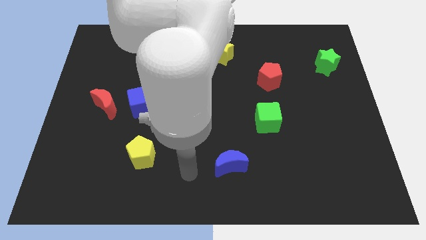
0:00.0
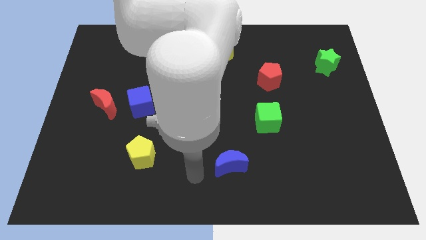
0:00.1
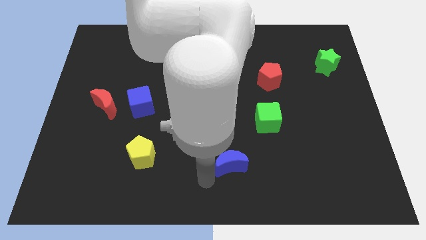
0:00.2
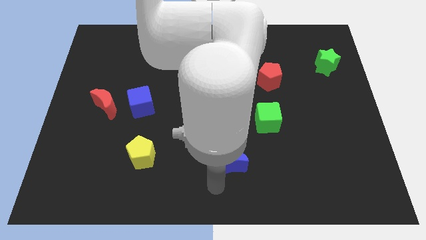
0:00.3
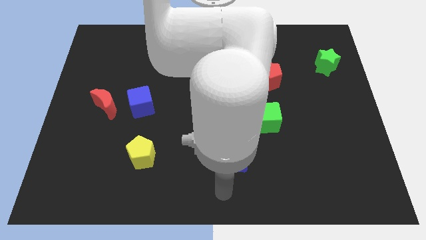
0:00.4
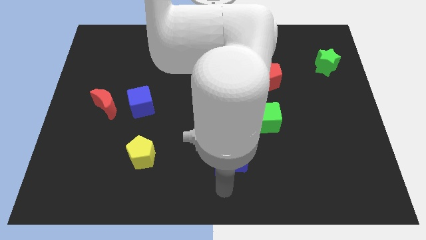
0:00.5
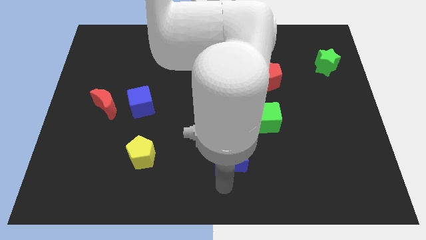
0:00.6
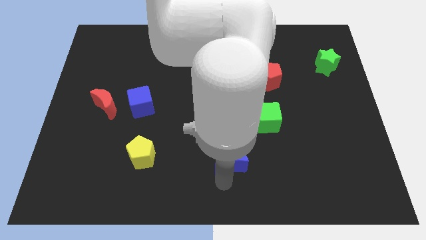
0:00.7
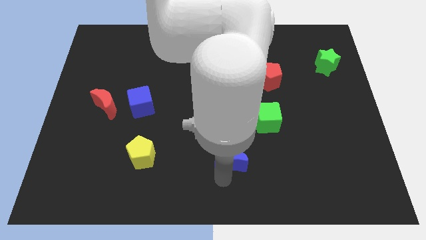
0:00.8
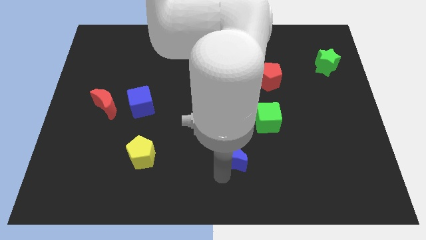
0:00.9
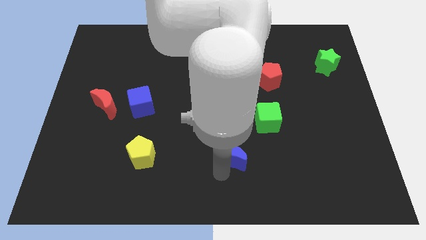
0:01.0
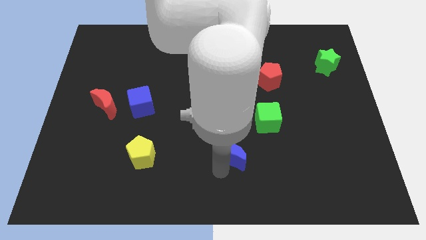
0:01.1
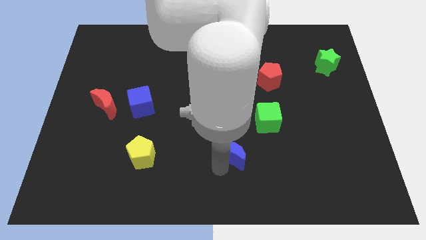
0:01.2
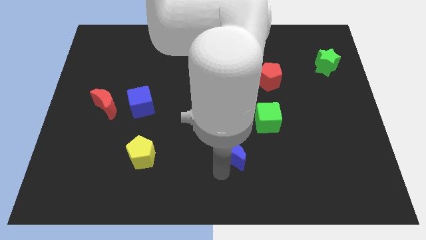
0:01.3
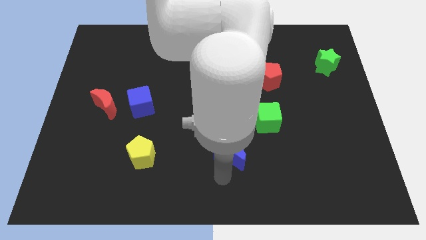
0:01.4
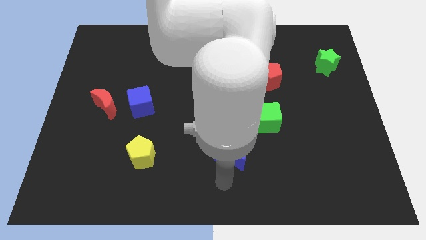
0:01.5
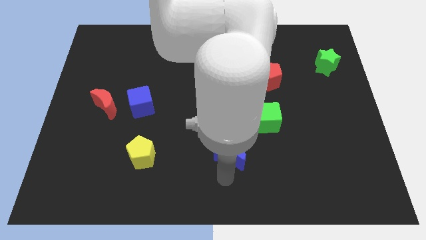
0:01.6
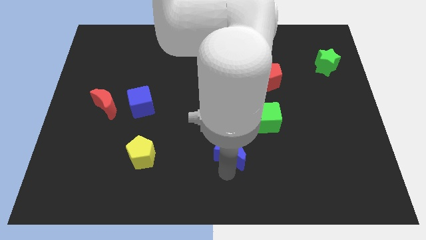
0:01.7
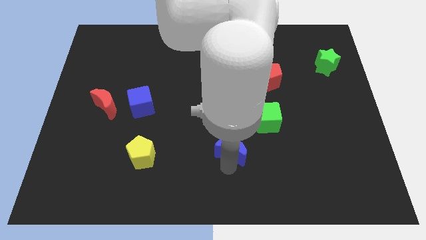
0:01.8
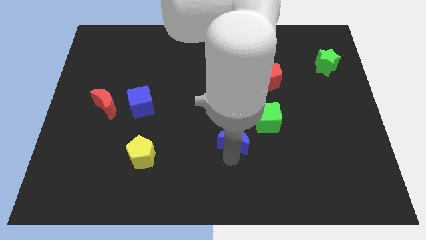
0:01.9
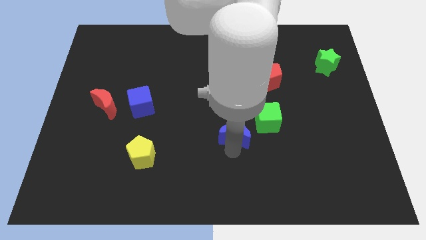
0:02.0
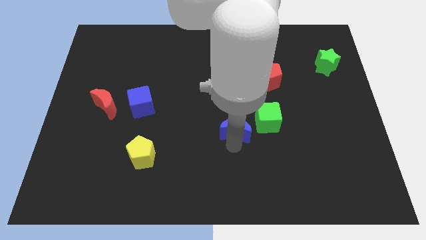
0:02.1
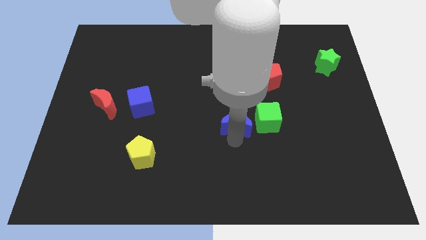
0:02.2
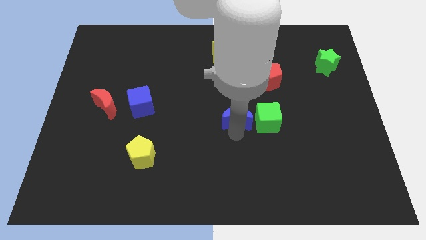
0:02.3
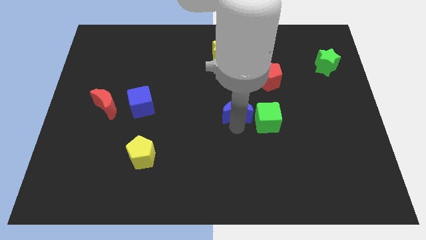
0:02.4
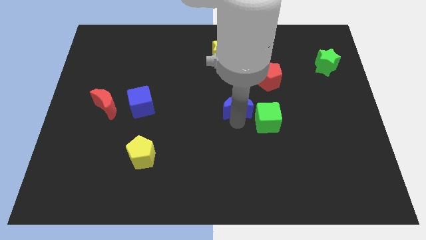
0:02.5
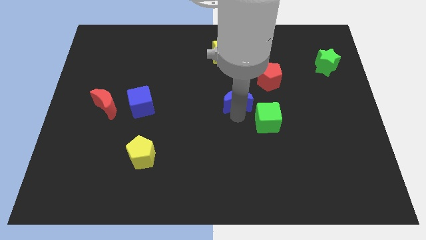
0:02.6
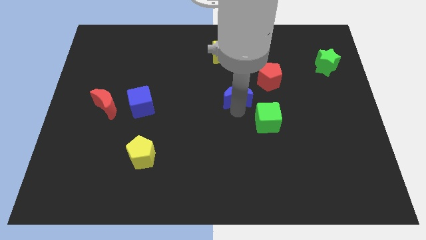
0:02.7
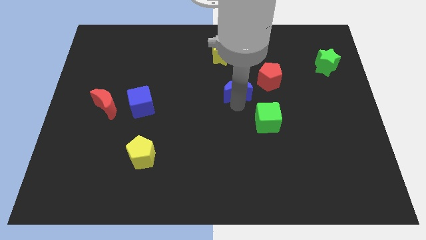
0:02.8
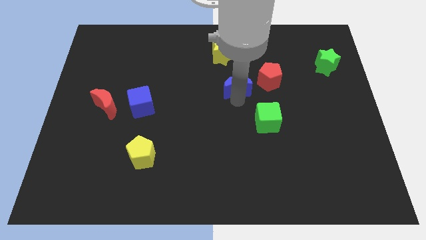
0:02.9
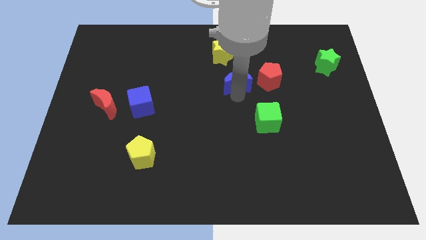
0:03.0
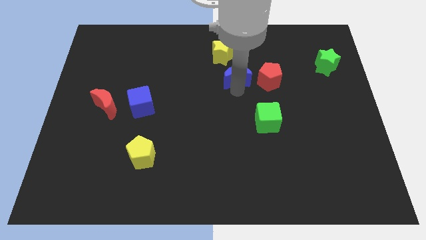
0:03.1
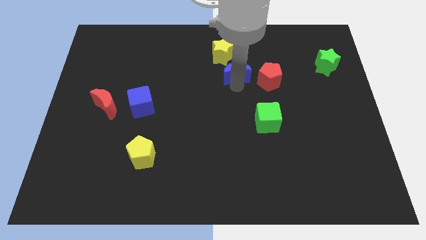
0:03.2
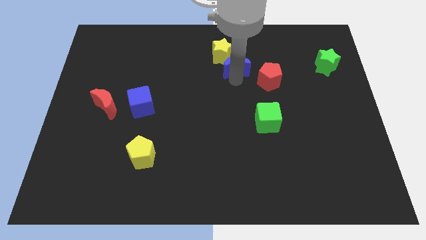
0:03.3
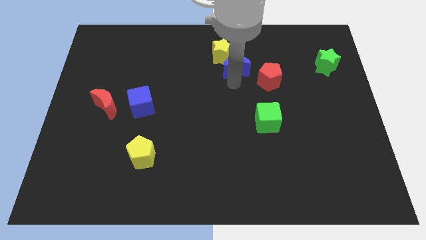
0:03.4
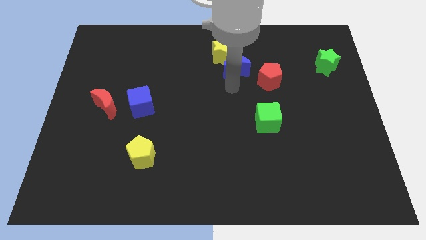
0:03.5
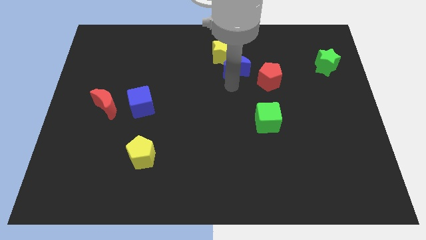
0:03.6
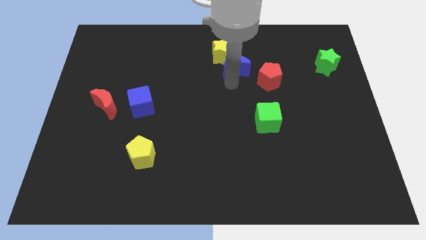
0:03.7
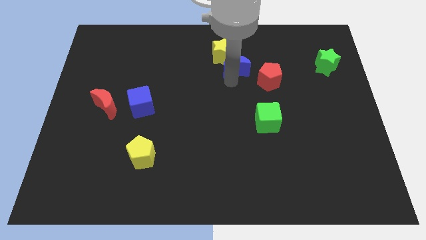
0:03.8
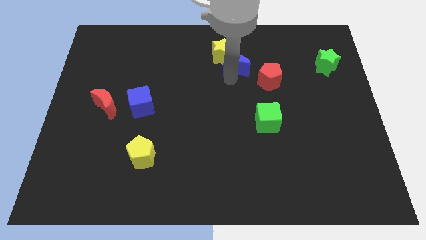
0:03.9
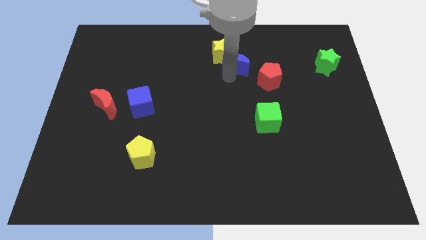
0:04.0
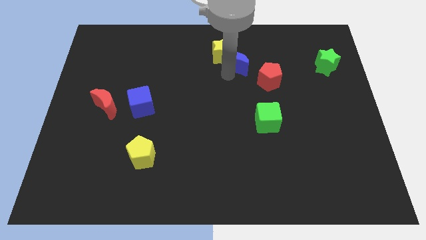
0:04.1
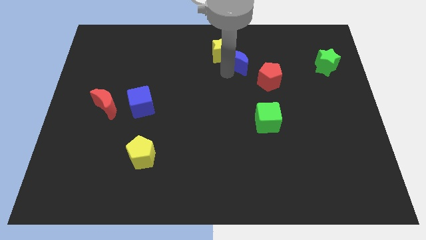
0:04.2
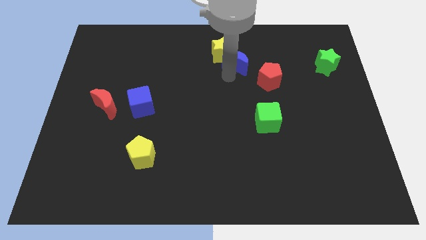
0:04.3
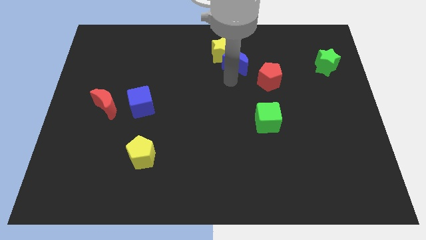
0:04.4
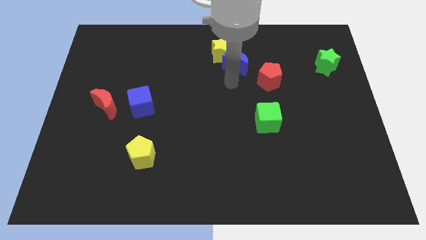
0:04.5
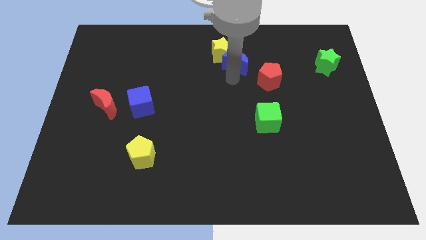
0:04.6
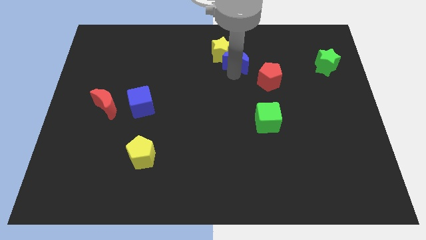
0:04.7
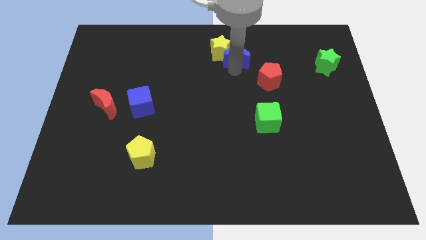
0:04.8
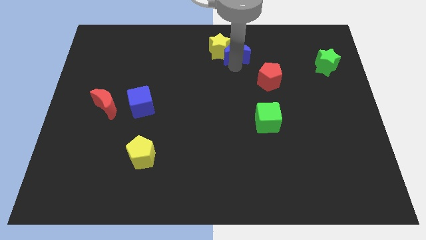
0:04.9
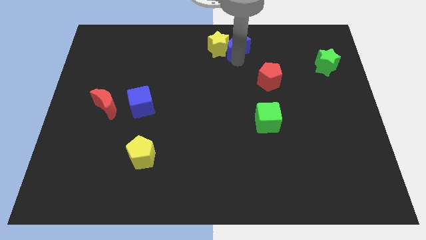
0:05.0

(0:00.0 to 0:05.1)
move the blue moon to the top

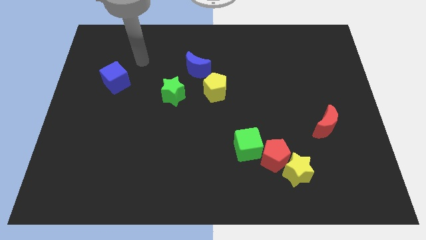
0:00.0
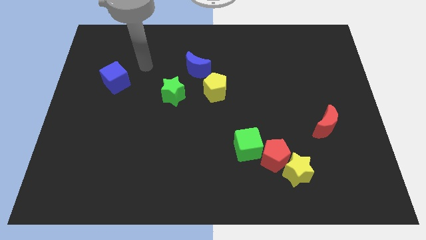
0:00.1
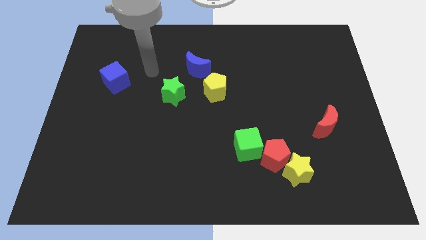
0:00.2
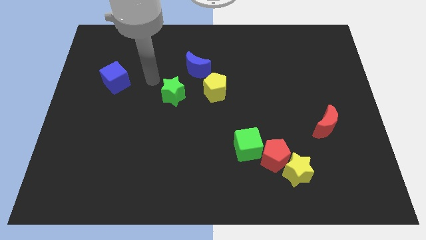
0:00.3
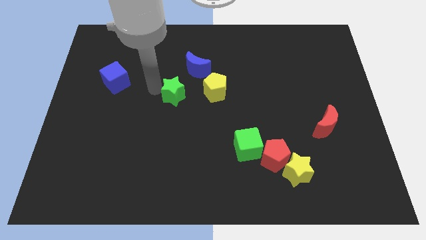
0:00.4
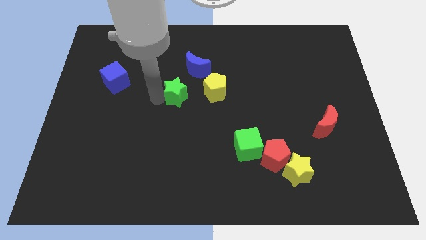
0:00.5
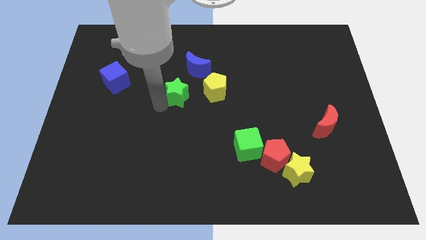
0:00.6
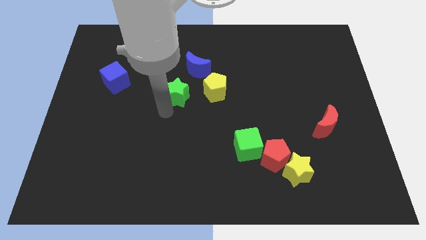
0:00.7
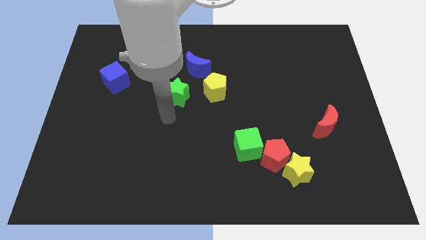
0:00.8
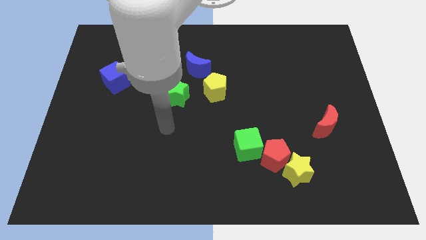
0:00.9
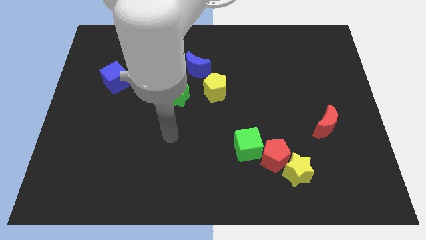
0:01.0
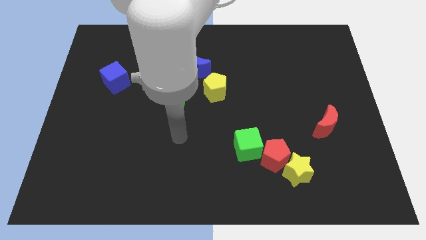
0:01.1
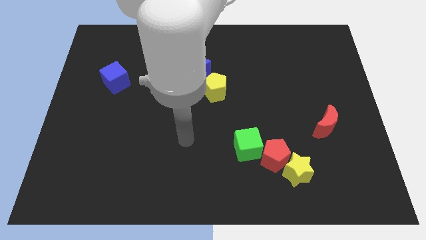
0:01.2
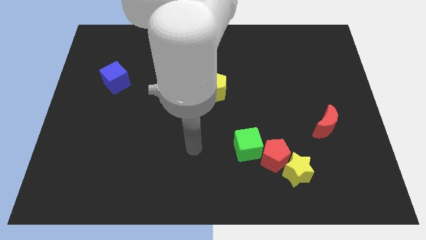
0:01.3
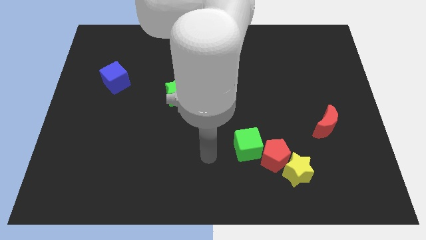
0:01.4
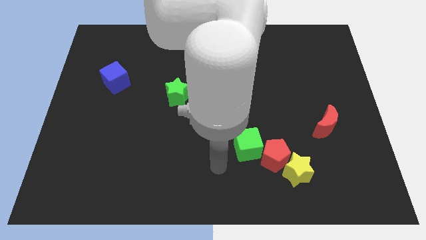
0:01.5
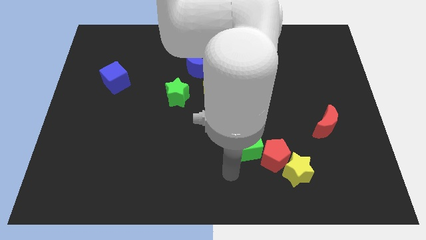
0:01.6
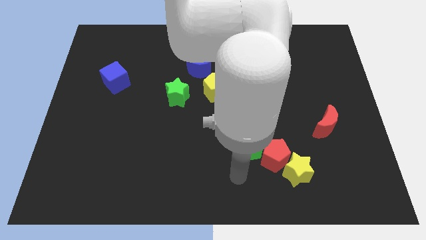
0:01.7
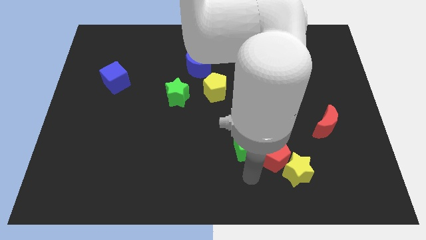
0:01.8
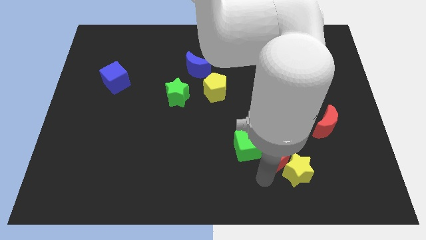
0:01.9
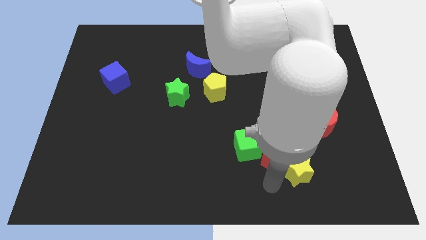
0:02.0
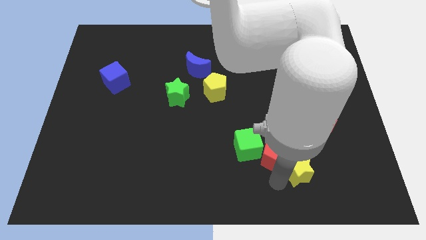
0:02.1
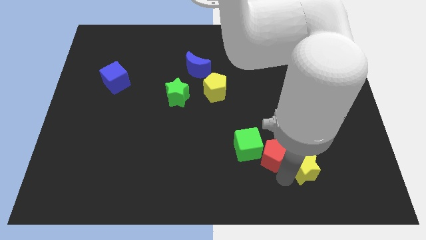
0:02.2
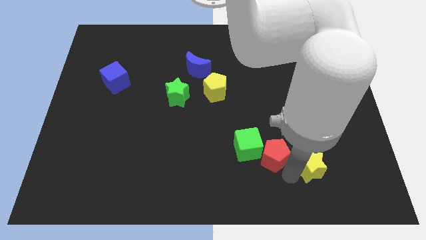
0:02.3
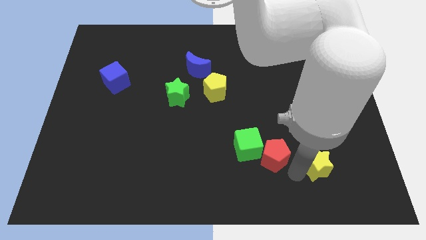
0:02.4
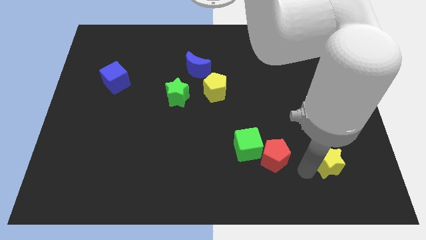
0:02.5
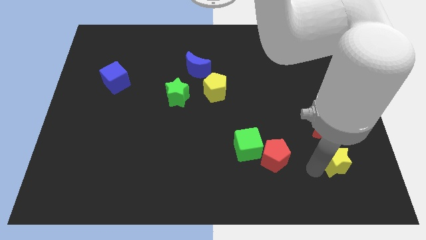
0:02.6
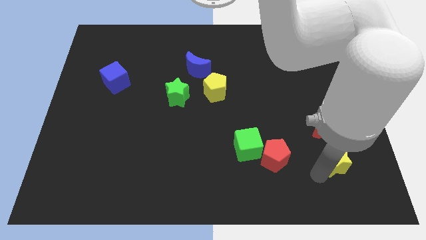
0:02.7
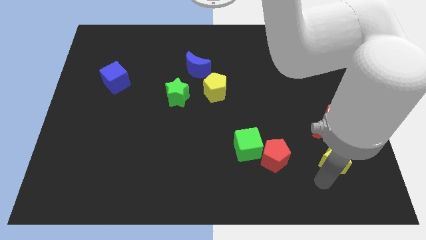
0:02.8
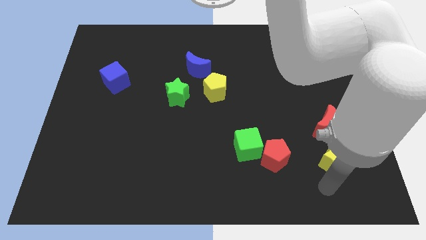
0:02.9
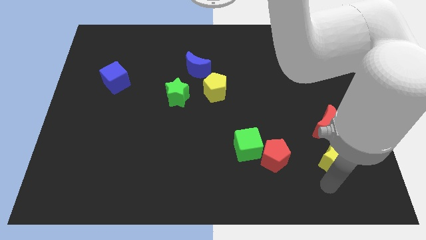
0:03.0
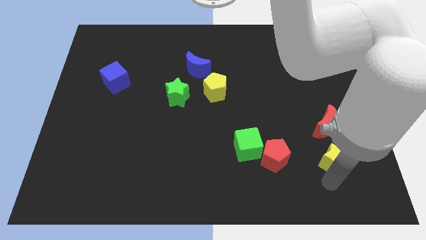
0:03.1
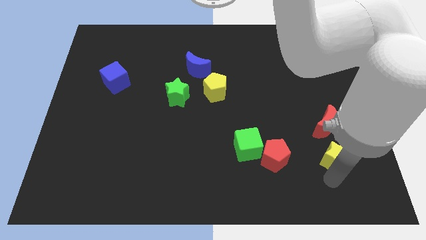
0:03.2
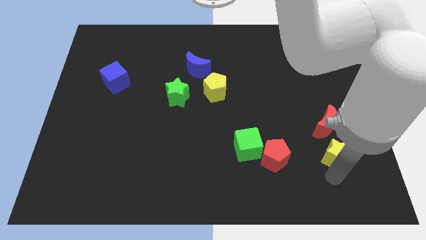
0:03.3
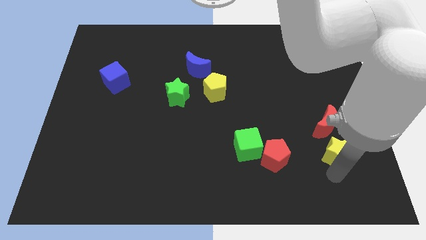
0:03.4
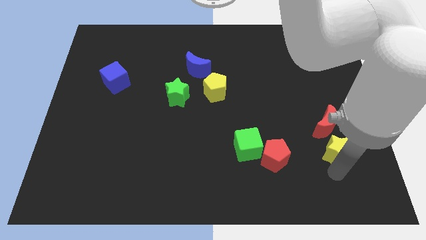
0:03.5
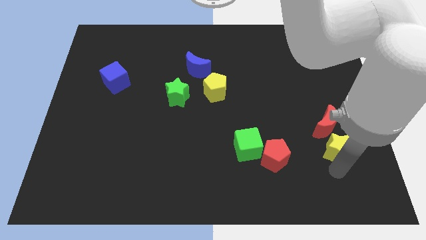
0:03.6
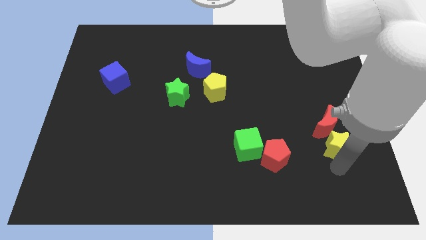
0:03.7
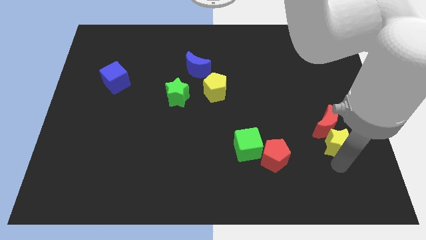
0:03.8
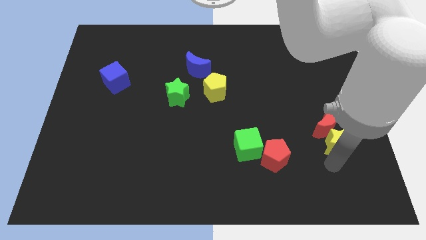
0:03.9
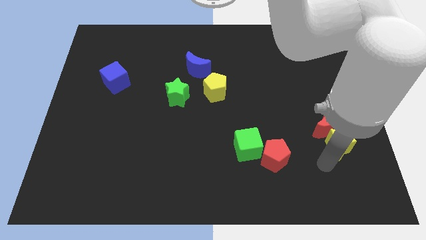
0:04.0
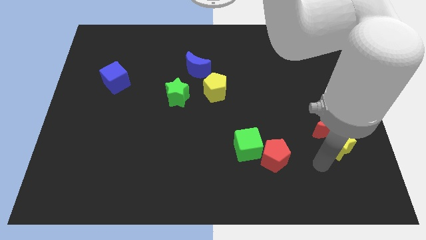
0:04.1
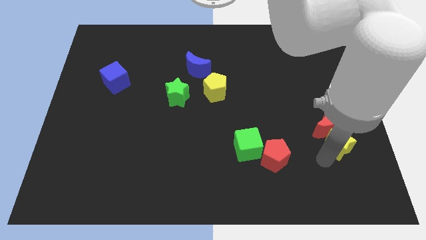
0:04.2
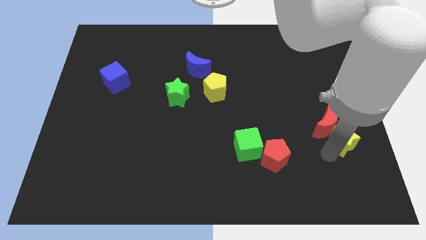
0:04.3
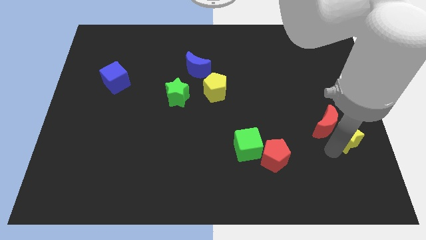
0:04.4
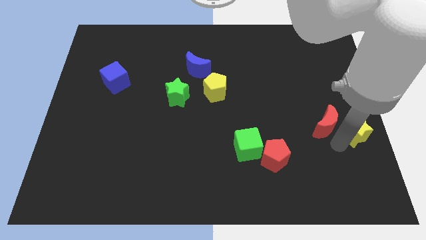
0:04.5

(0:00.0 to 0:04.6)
put the yellow star to the right side of the board
